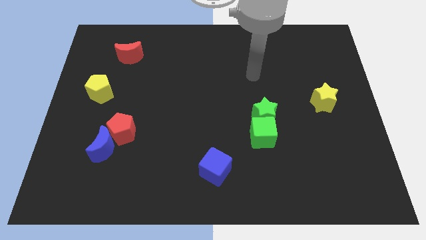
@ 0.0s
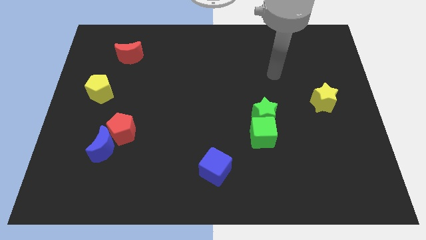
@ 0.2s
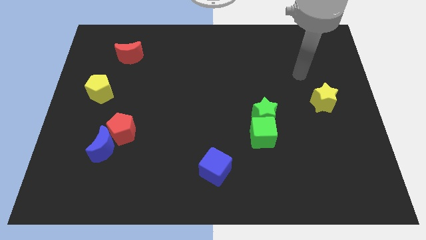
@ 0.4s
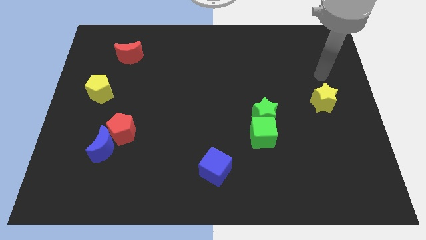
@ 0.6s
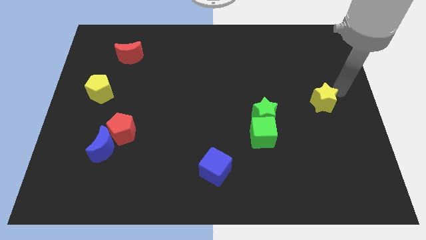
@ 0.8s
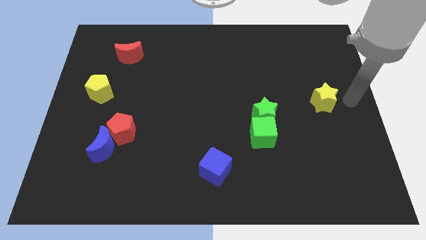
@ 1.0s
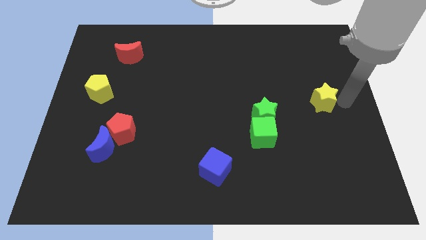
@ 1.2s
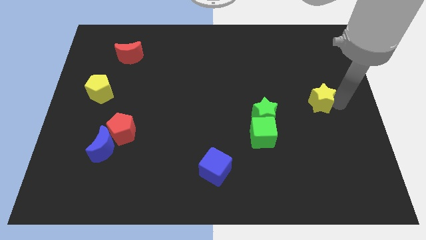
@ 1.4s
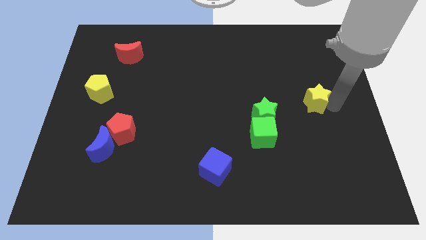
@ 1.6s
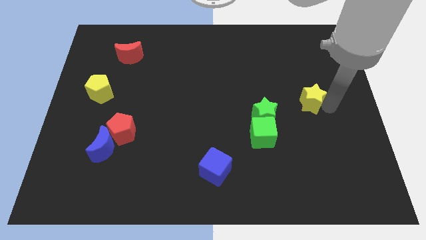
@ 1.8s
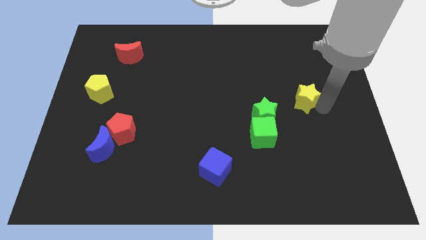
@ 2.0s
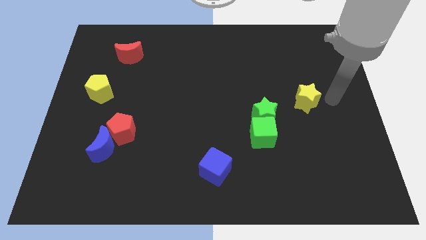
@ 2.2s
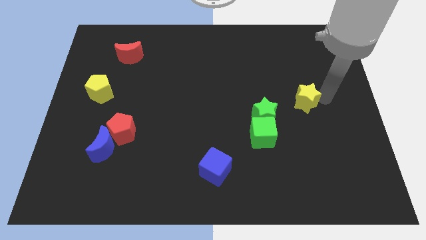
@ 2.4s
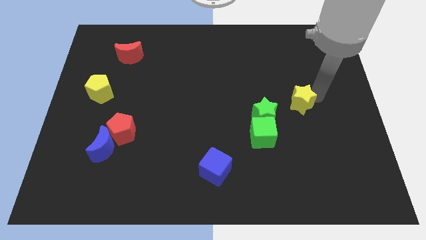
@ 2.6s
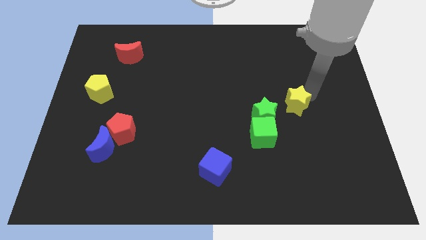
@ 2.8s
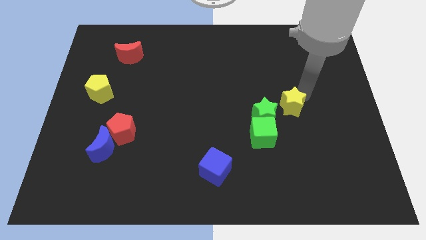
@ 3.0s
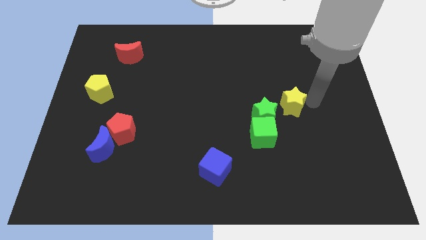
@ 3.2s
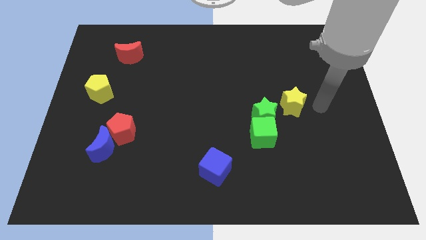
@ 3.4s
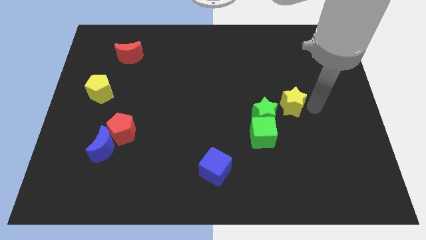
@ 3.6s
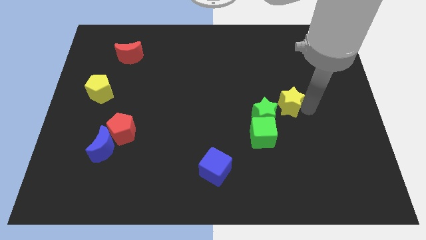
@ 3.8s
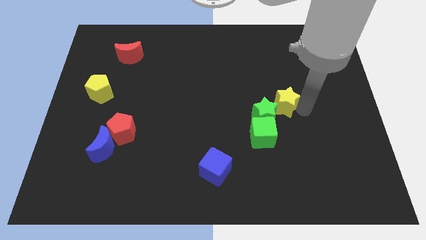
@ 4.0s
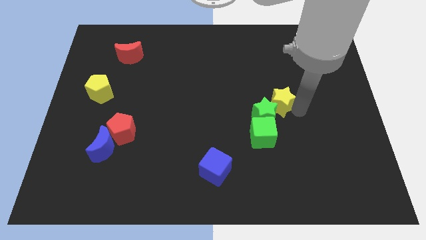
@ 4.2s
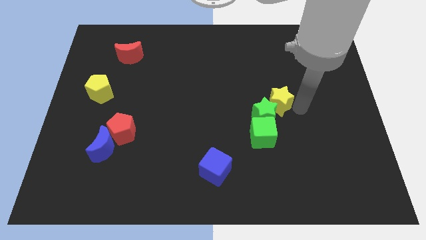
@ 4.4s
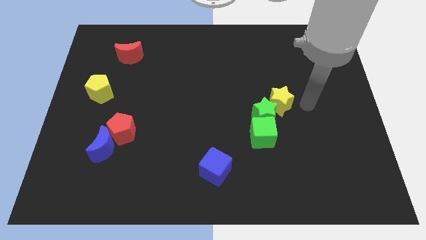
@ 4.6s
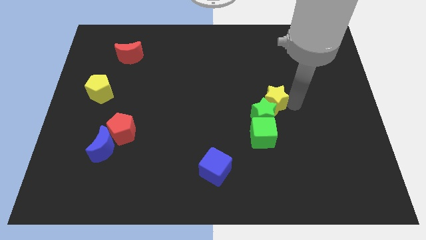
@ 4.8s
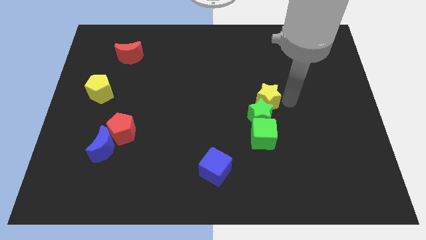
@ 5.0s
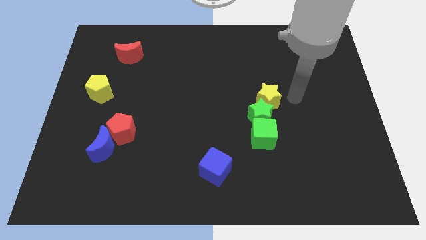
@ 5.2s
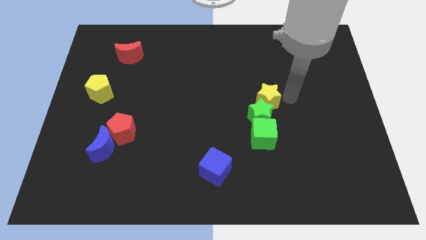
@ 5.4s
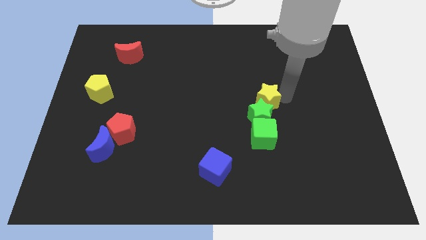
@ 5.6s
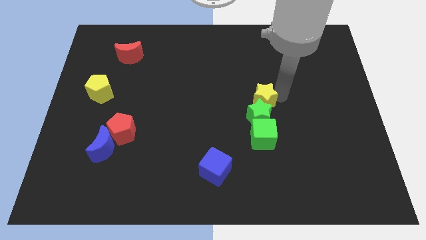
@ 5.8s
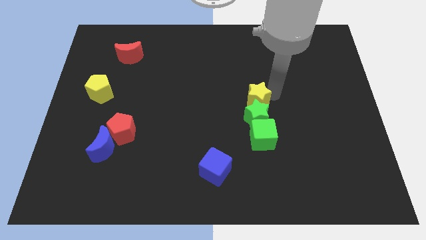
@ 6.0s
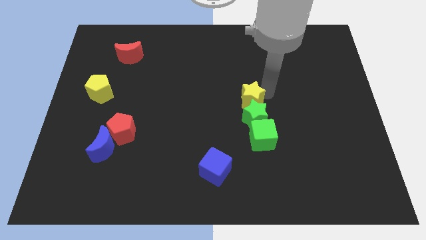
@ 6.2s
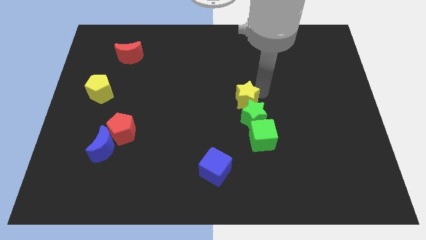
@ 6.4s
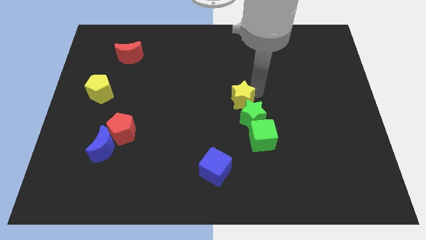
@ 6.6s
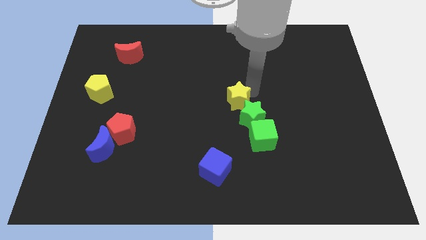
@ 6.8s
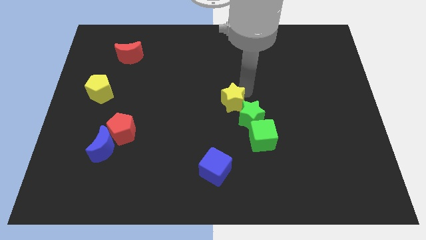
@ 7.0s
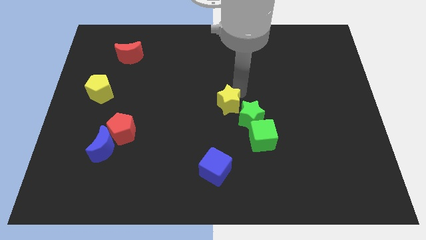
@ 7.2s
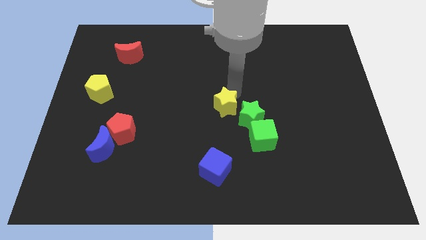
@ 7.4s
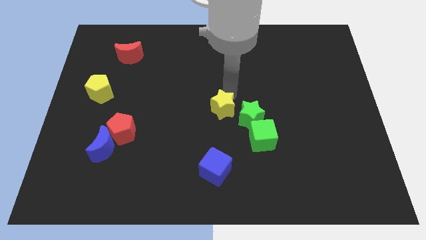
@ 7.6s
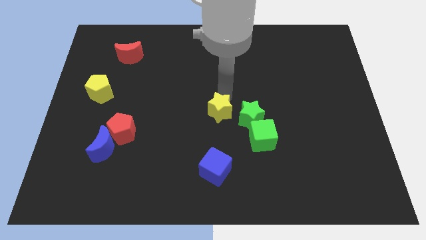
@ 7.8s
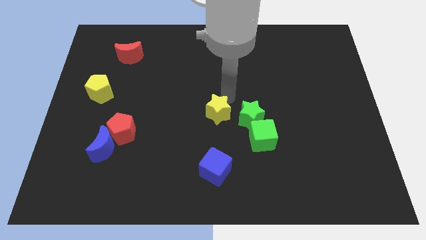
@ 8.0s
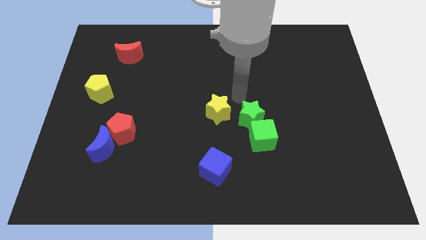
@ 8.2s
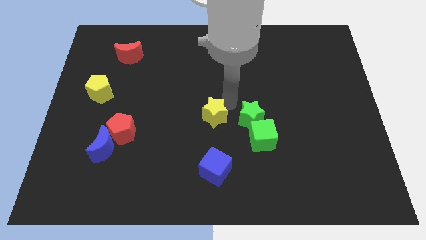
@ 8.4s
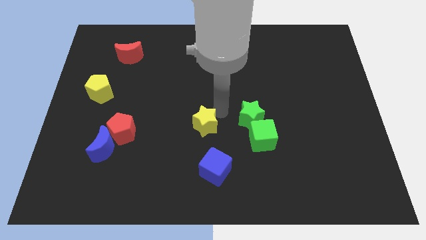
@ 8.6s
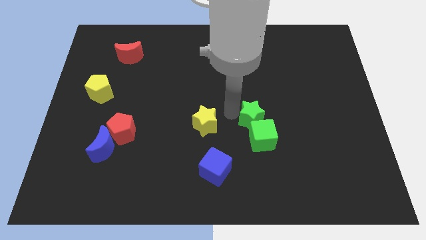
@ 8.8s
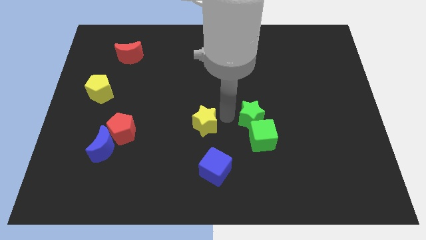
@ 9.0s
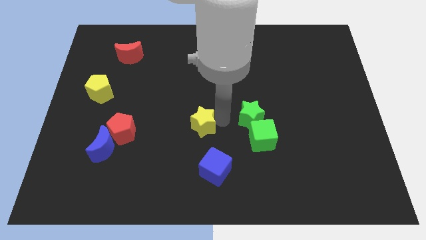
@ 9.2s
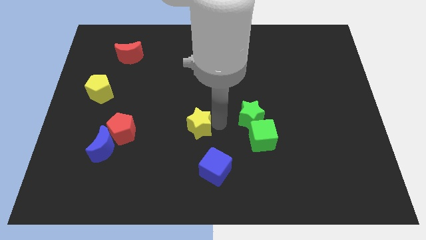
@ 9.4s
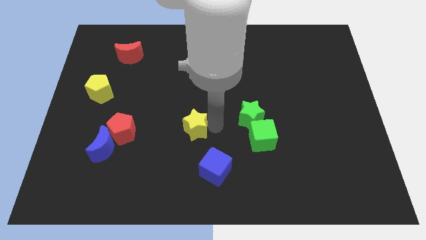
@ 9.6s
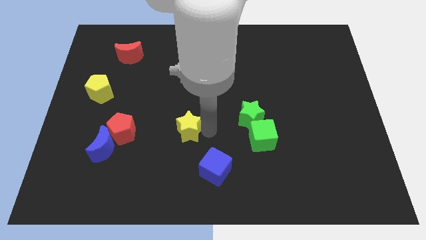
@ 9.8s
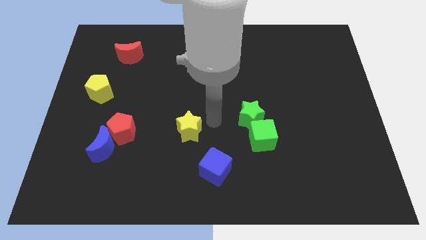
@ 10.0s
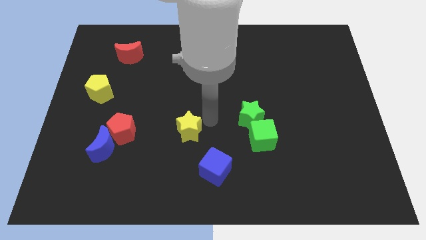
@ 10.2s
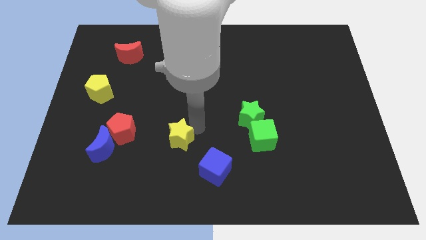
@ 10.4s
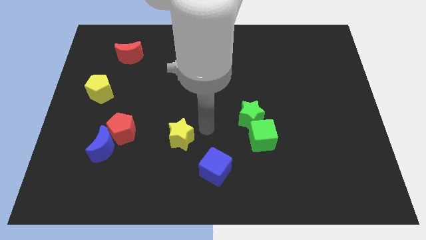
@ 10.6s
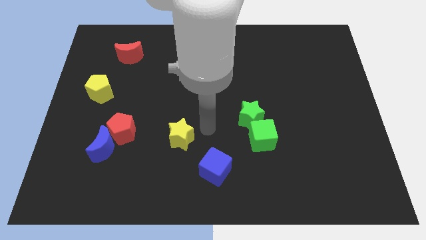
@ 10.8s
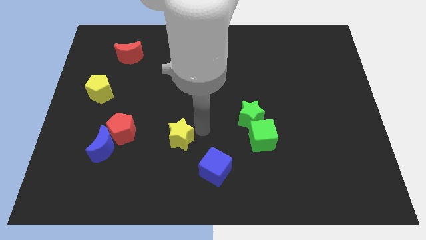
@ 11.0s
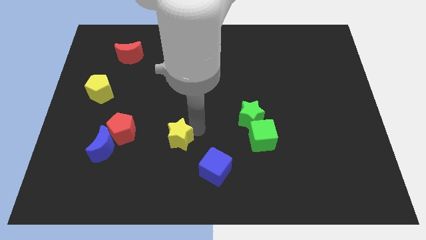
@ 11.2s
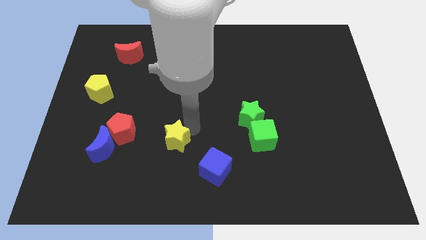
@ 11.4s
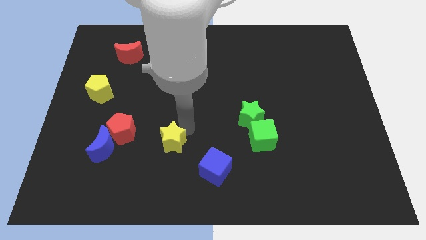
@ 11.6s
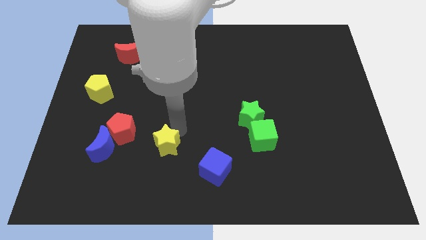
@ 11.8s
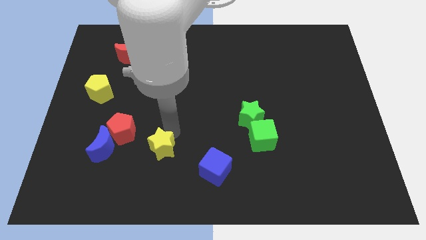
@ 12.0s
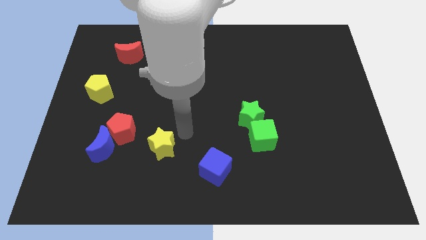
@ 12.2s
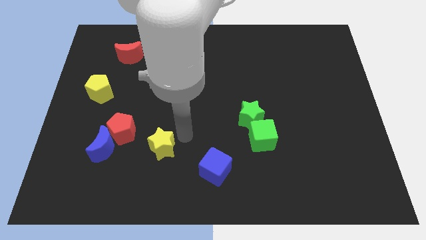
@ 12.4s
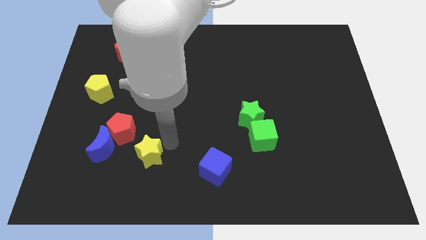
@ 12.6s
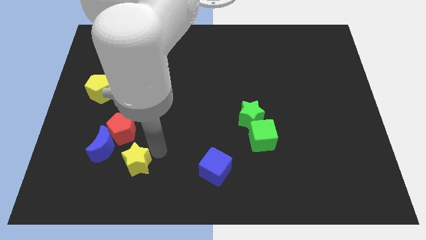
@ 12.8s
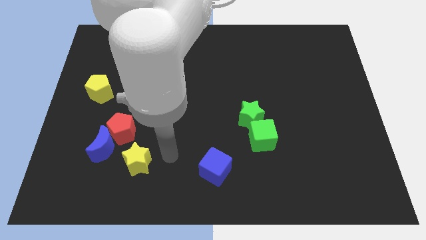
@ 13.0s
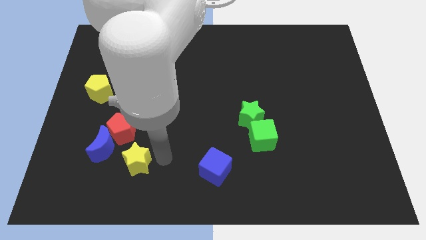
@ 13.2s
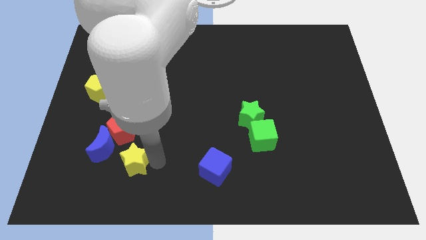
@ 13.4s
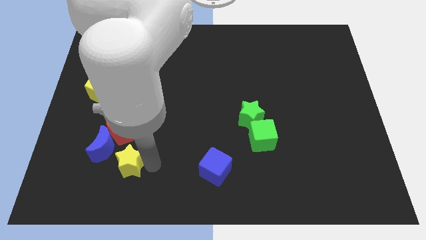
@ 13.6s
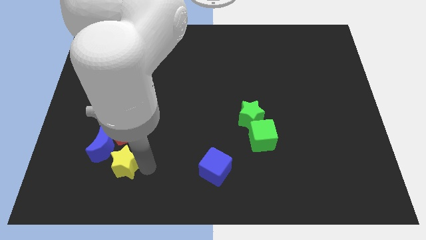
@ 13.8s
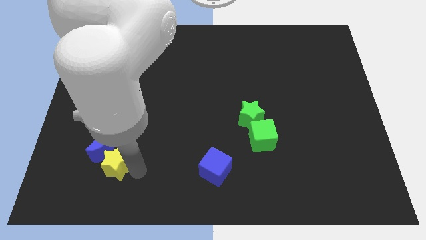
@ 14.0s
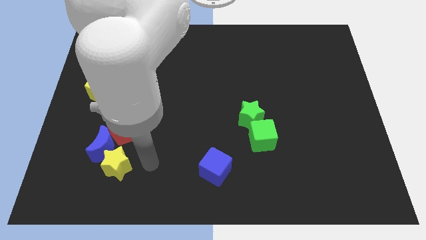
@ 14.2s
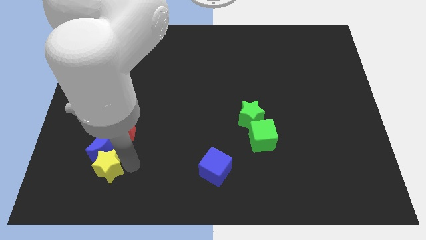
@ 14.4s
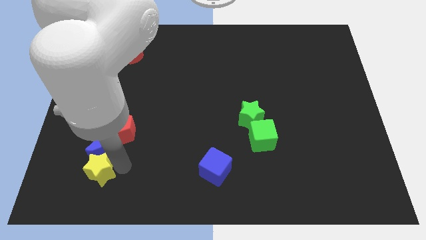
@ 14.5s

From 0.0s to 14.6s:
slide the yellow star to the bottom left of the blue moon

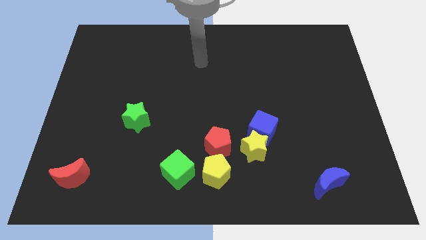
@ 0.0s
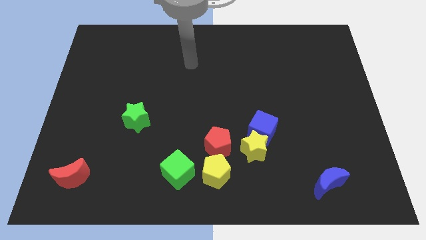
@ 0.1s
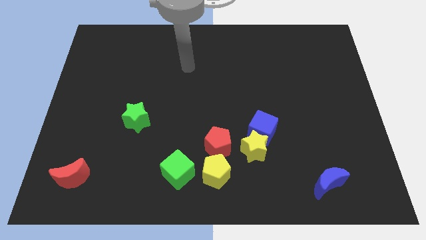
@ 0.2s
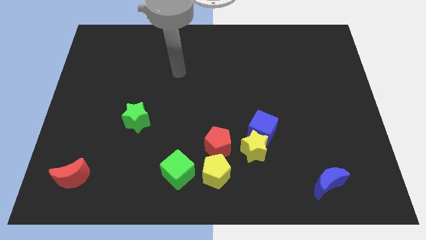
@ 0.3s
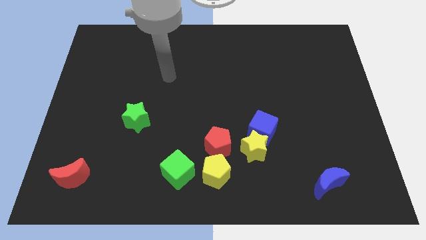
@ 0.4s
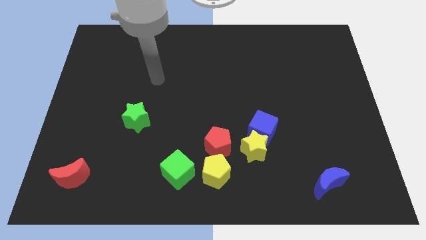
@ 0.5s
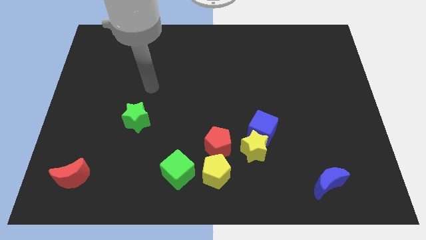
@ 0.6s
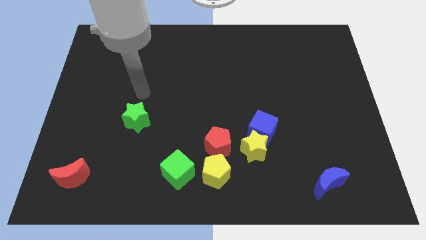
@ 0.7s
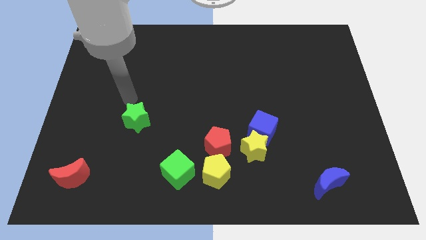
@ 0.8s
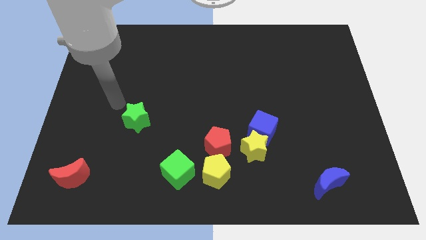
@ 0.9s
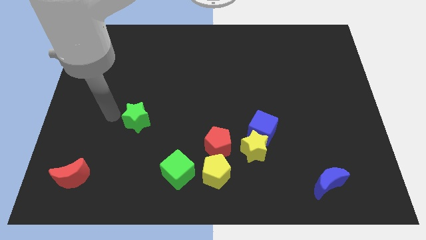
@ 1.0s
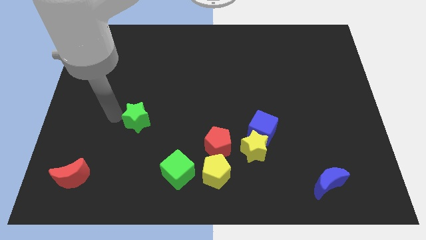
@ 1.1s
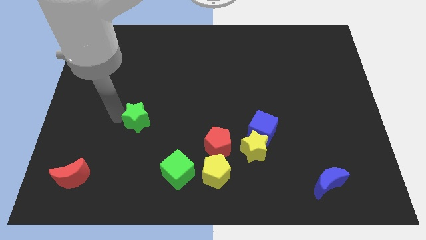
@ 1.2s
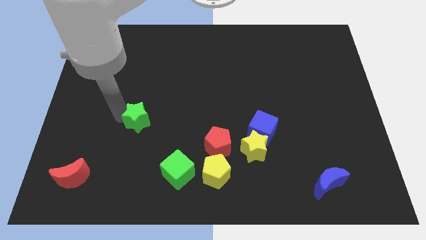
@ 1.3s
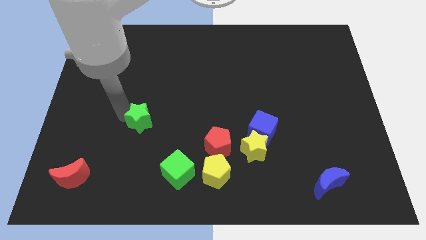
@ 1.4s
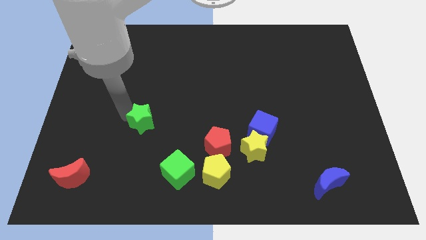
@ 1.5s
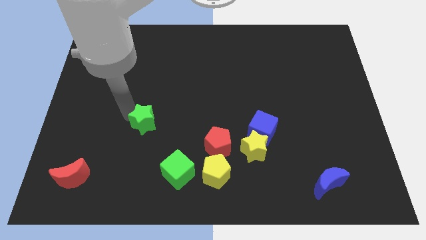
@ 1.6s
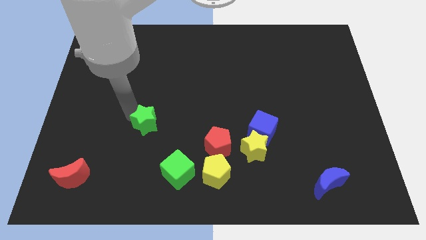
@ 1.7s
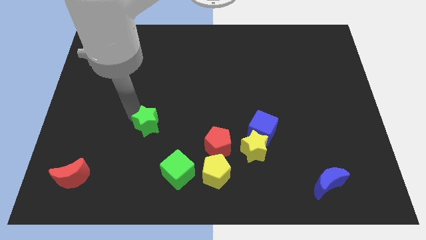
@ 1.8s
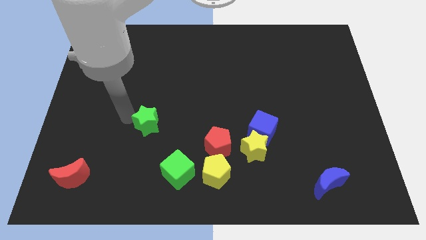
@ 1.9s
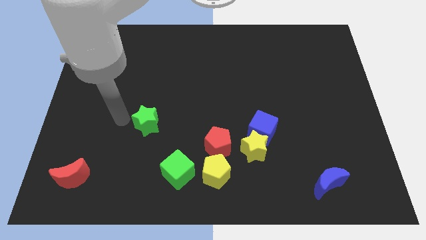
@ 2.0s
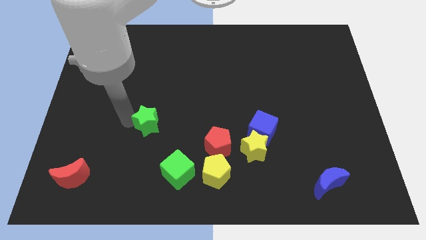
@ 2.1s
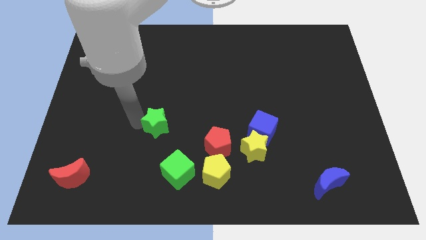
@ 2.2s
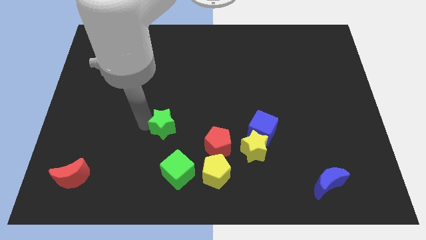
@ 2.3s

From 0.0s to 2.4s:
push the green star to the top of the green cube
